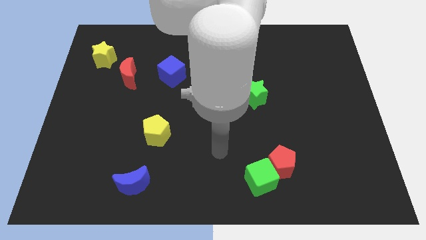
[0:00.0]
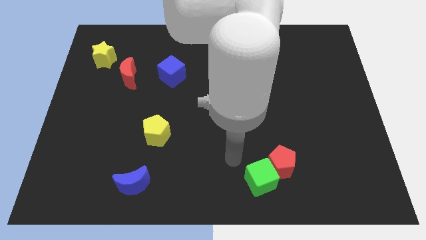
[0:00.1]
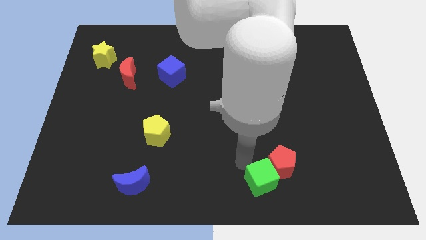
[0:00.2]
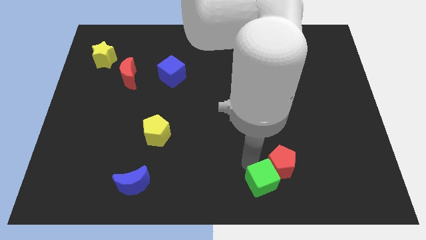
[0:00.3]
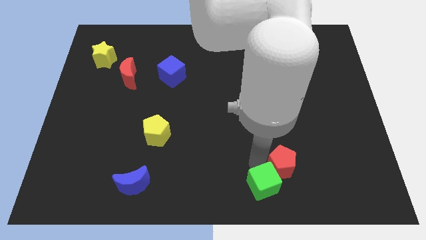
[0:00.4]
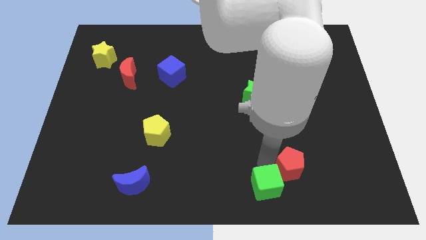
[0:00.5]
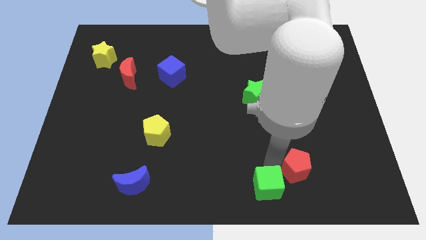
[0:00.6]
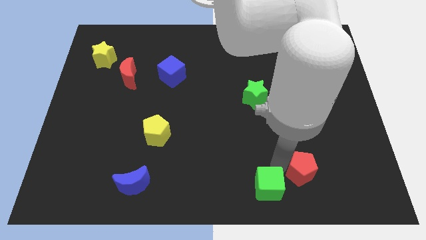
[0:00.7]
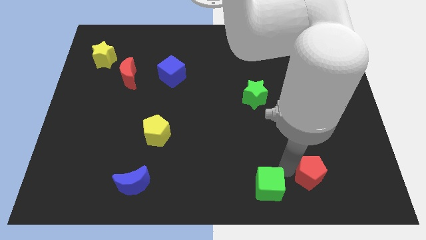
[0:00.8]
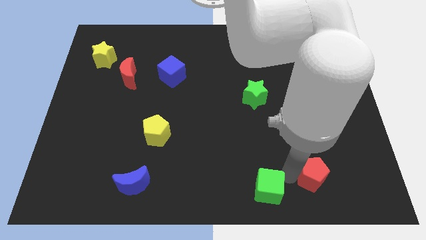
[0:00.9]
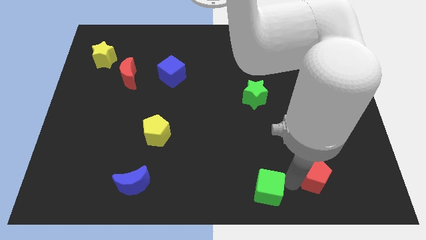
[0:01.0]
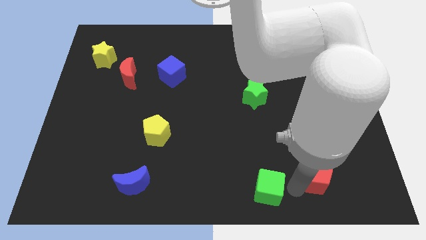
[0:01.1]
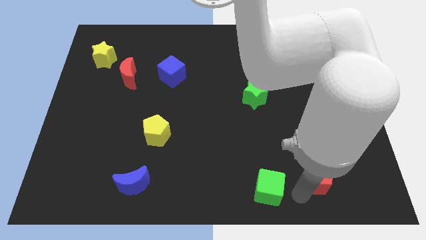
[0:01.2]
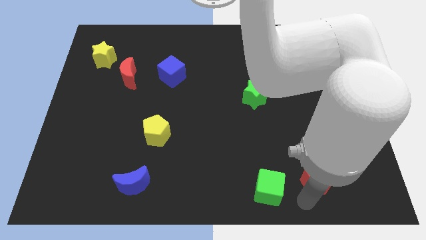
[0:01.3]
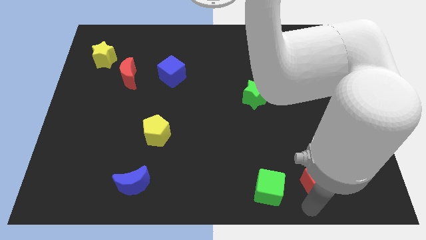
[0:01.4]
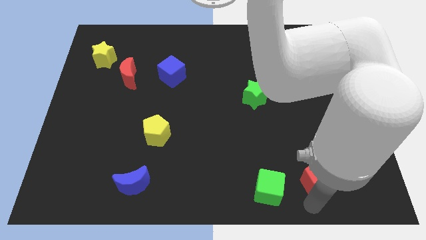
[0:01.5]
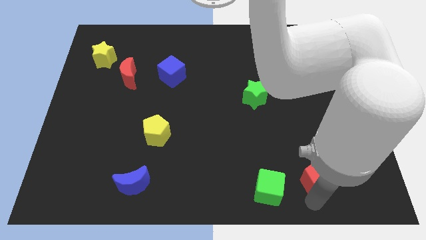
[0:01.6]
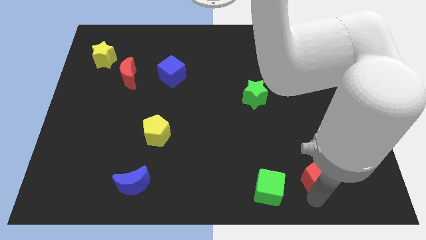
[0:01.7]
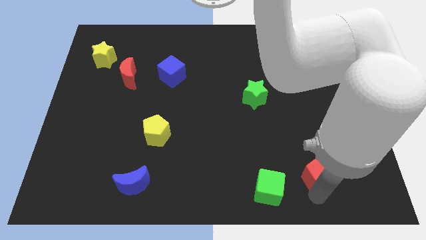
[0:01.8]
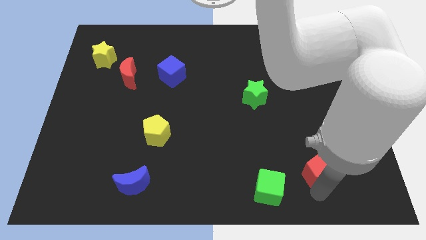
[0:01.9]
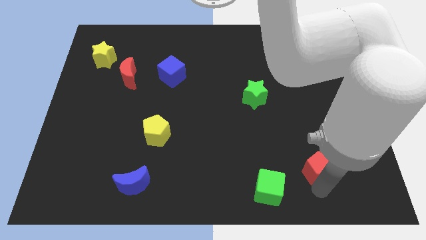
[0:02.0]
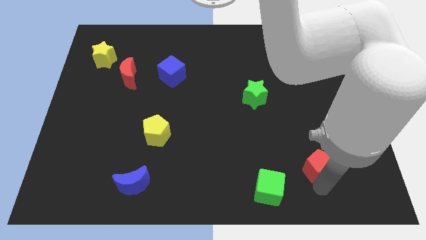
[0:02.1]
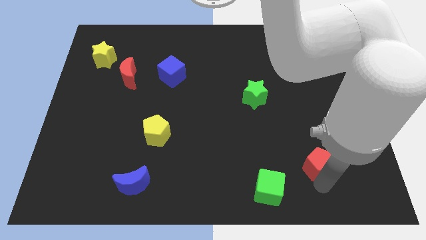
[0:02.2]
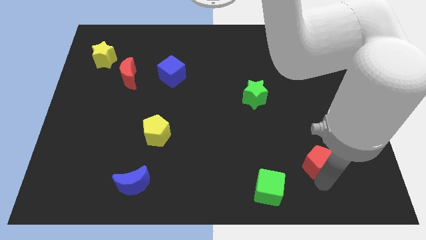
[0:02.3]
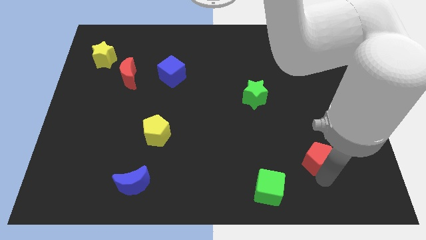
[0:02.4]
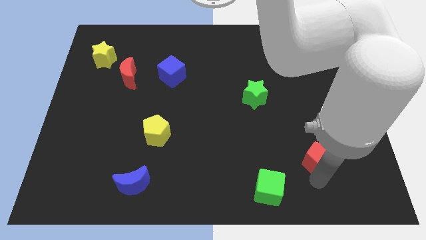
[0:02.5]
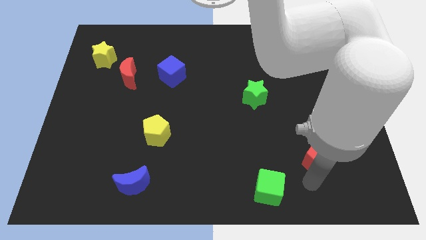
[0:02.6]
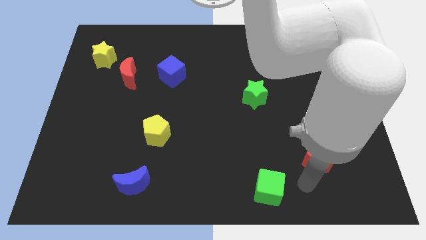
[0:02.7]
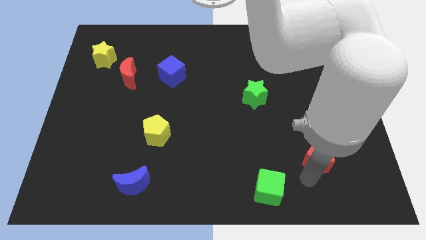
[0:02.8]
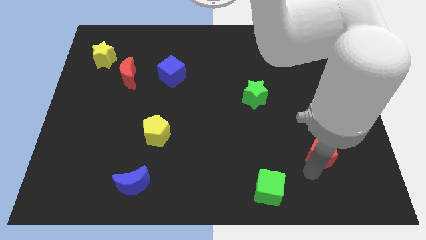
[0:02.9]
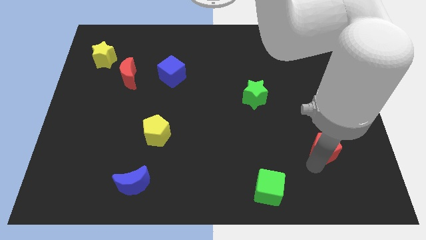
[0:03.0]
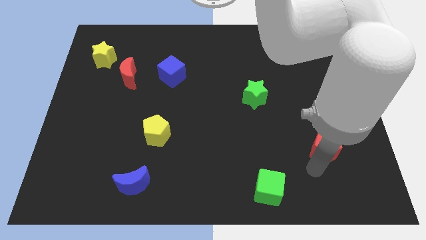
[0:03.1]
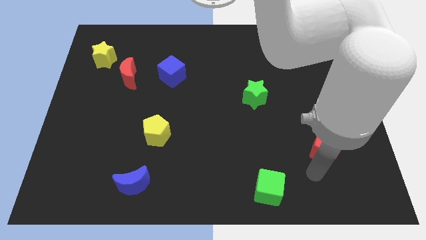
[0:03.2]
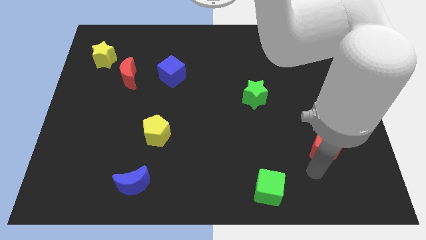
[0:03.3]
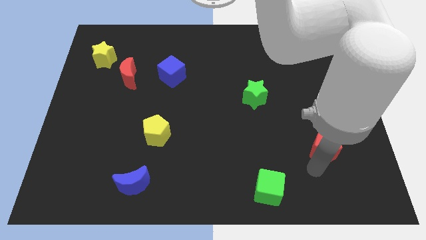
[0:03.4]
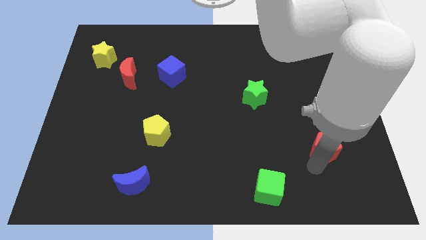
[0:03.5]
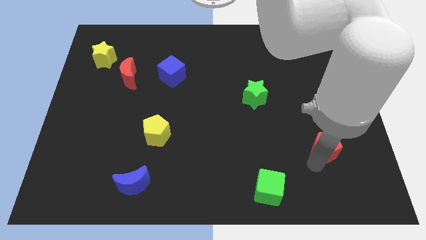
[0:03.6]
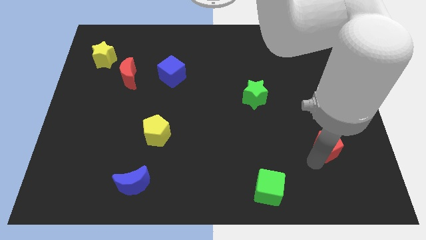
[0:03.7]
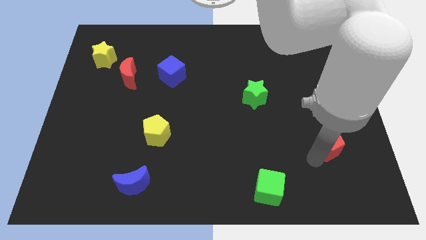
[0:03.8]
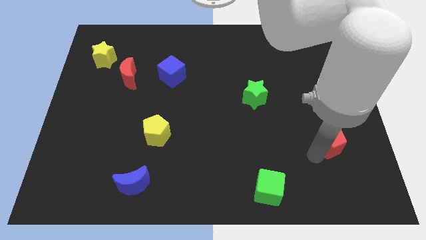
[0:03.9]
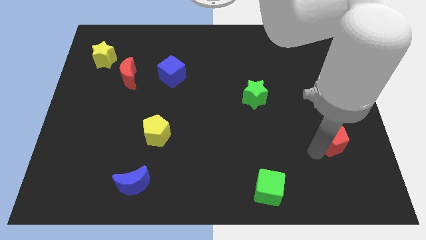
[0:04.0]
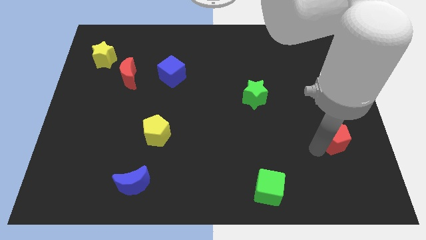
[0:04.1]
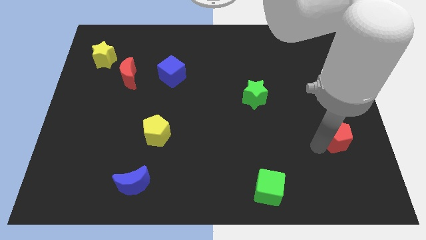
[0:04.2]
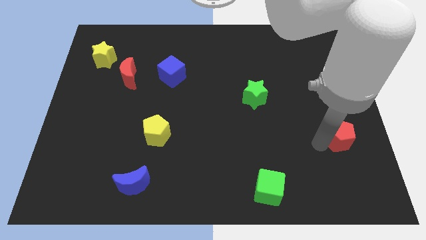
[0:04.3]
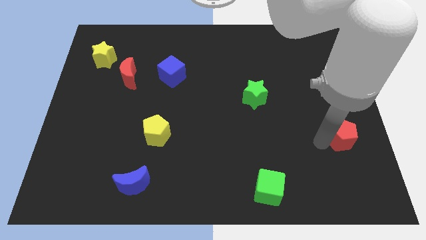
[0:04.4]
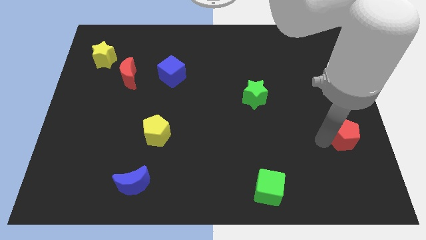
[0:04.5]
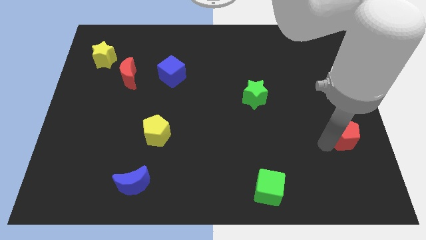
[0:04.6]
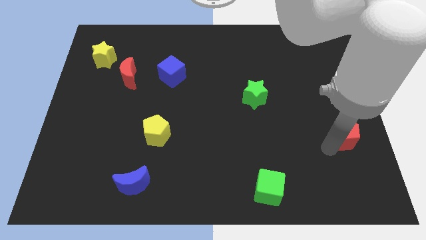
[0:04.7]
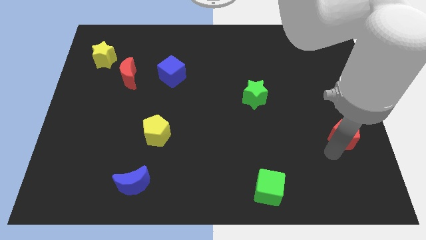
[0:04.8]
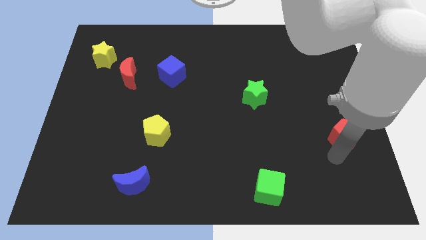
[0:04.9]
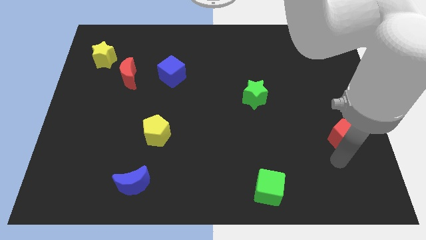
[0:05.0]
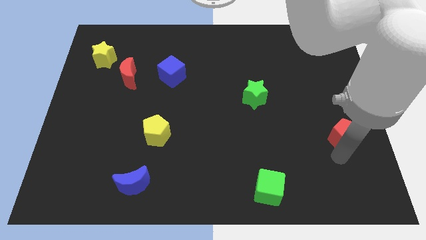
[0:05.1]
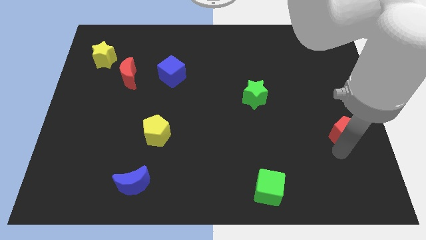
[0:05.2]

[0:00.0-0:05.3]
slide the red pentagon to the center right
